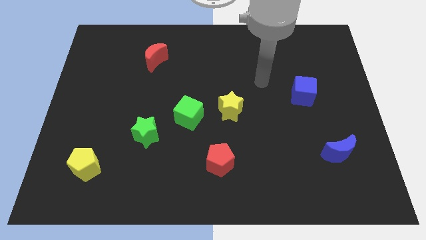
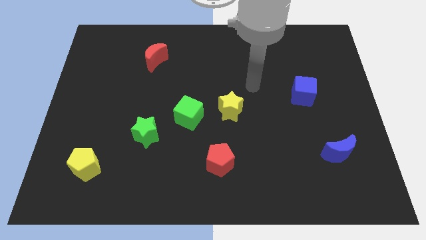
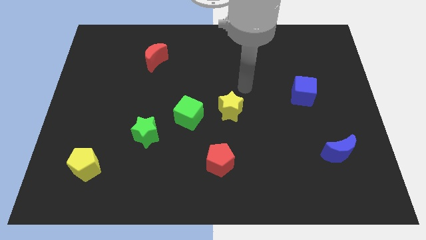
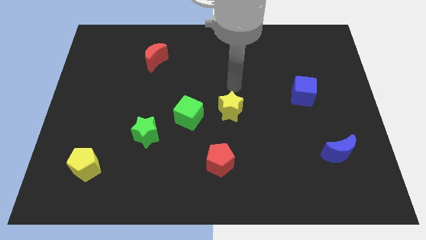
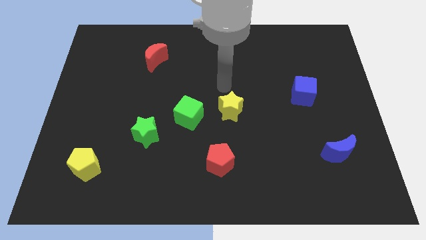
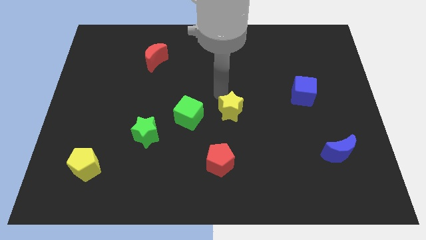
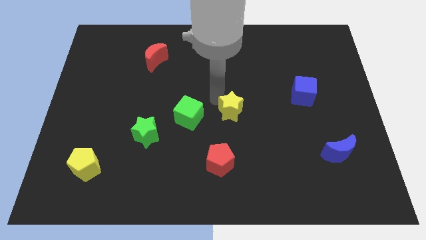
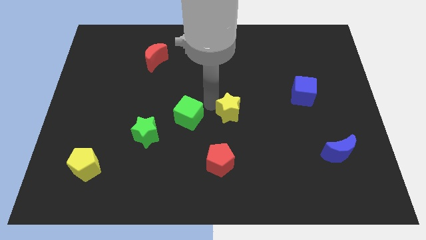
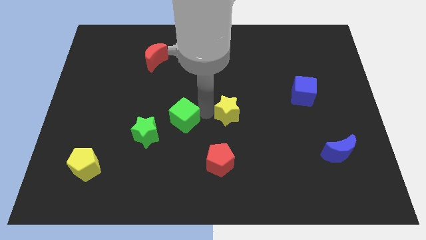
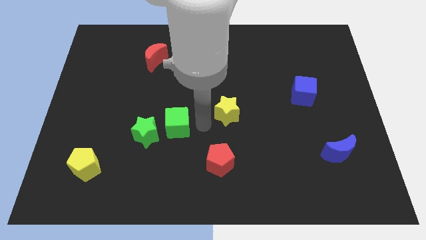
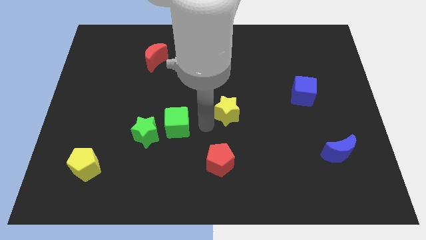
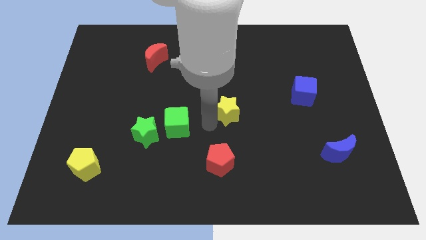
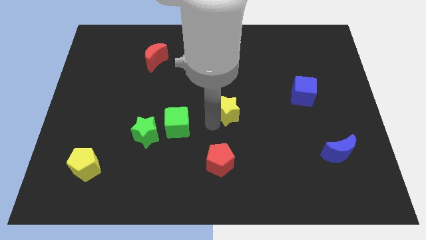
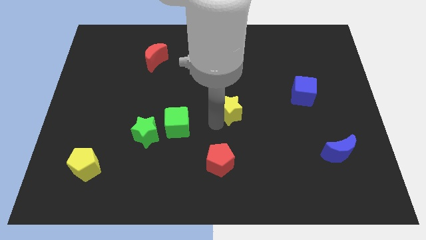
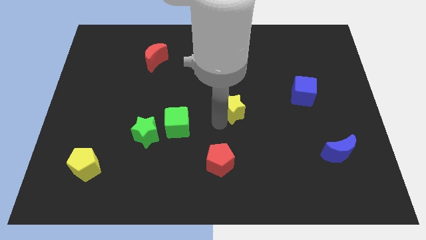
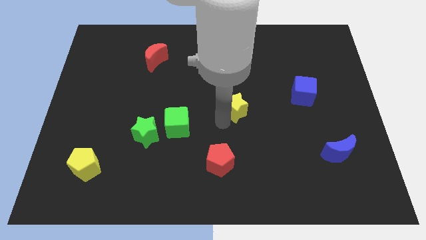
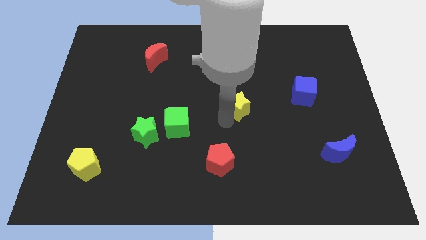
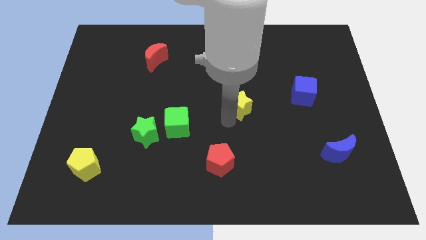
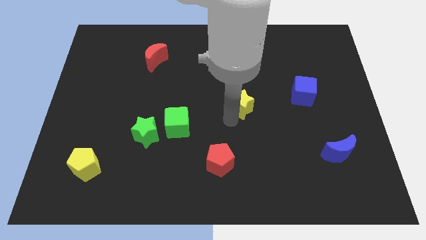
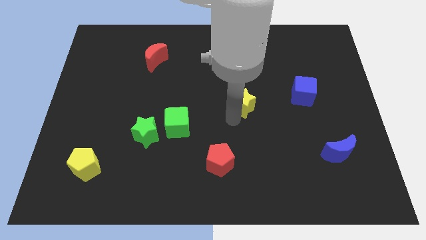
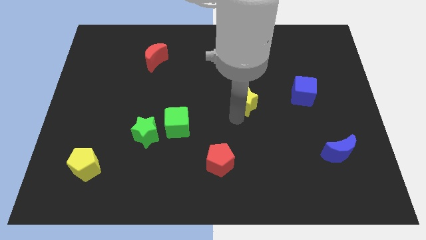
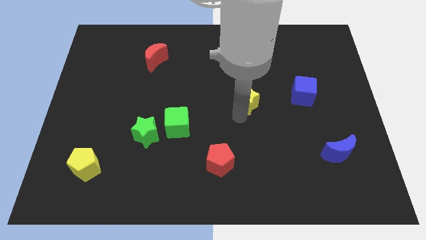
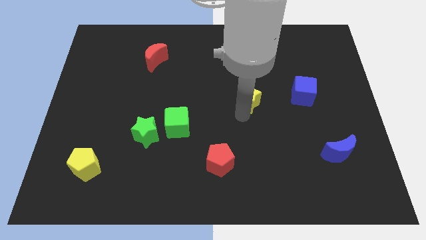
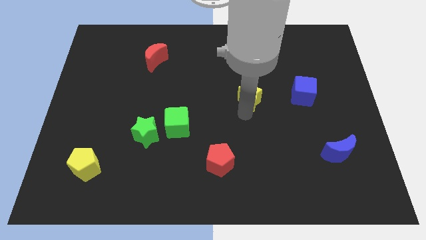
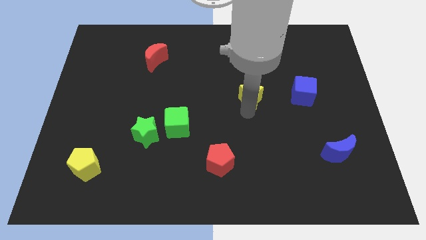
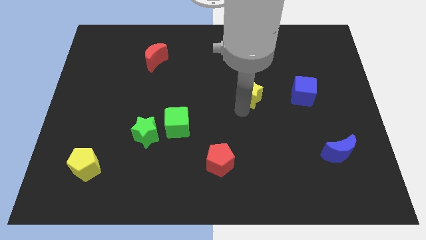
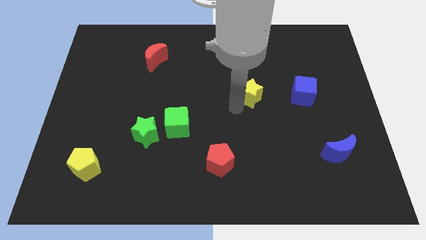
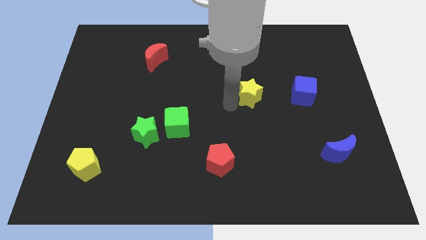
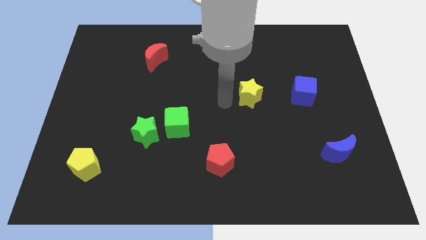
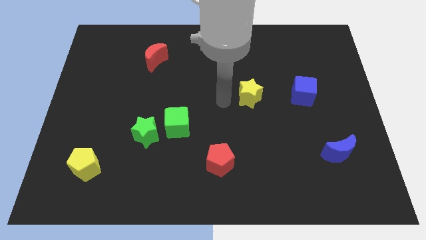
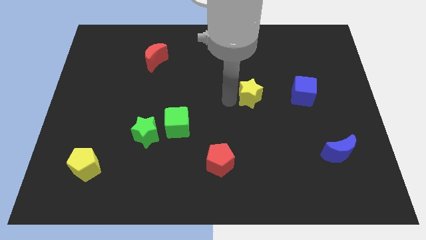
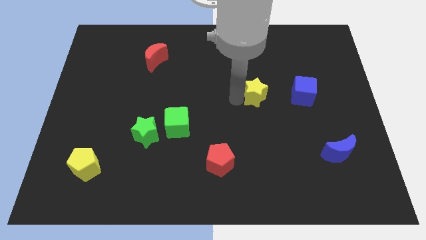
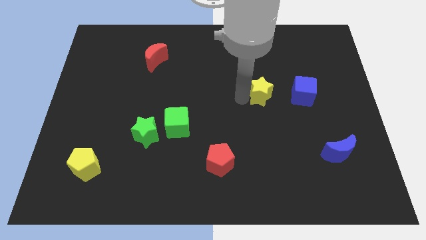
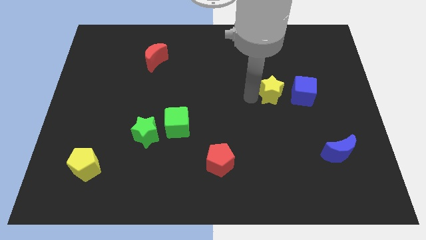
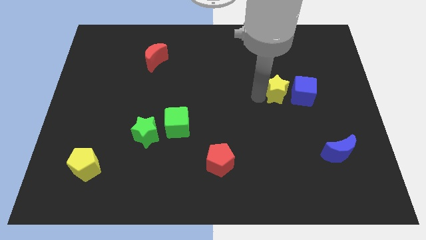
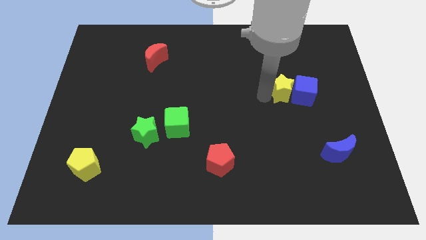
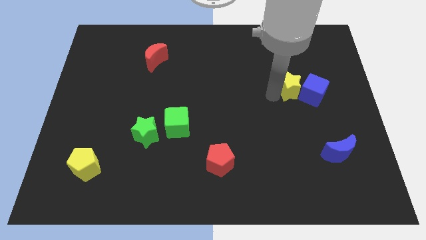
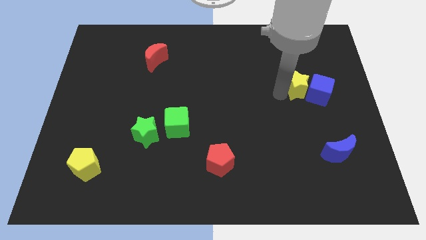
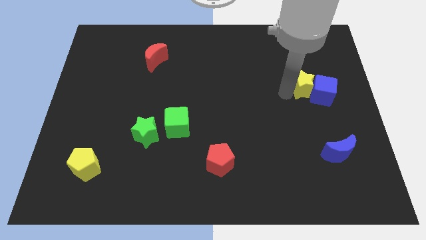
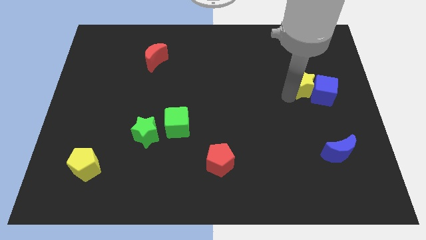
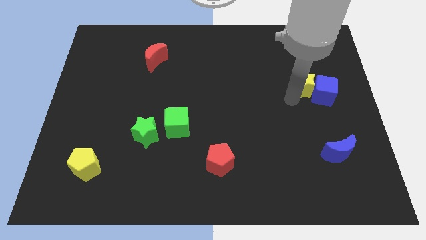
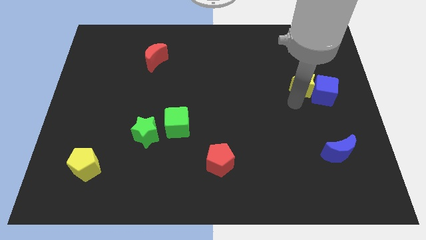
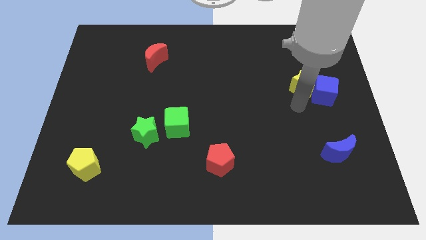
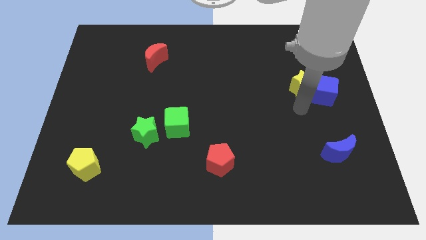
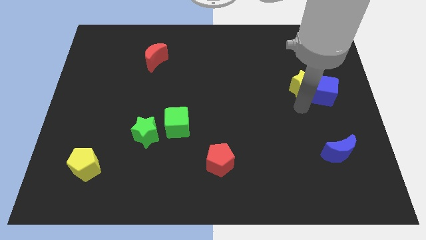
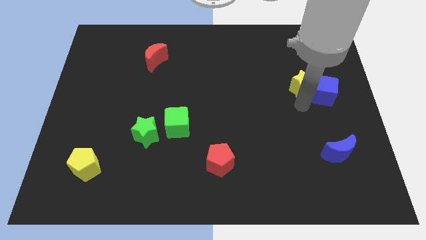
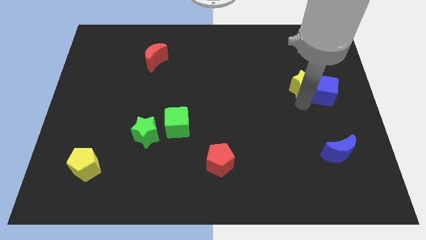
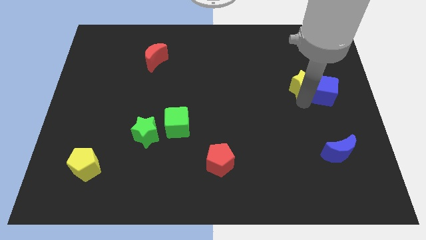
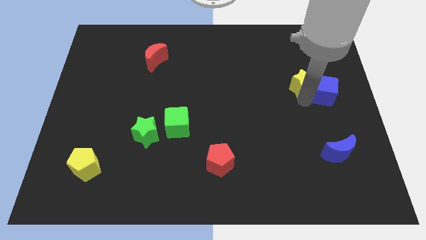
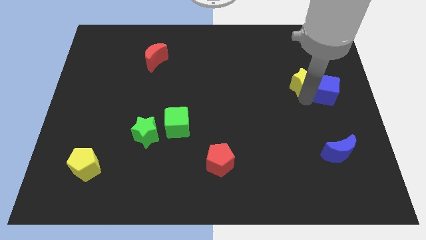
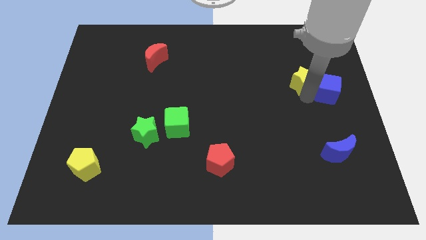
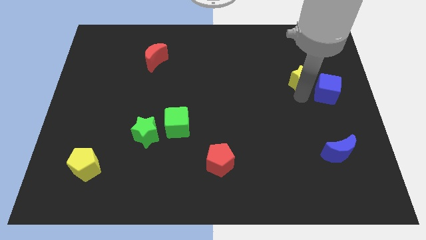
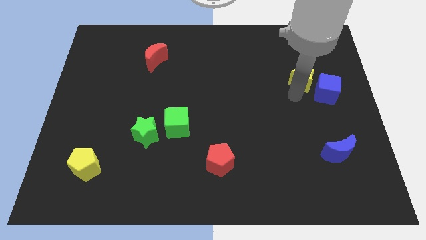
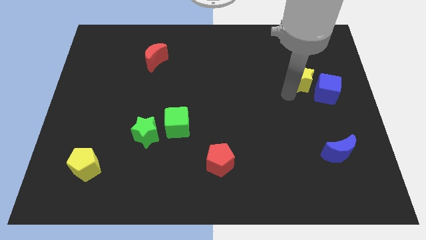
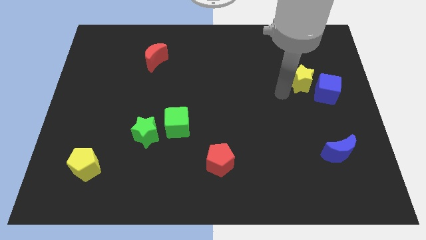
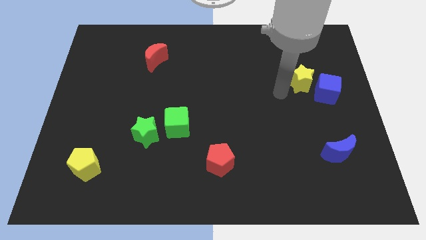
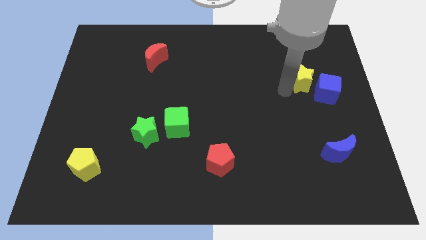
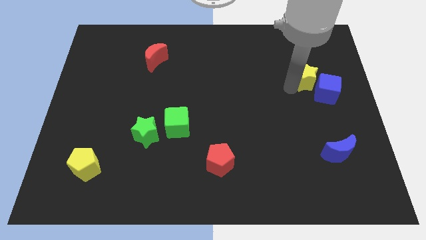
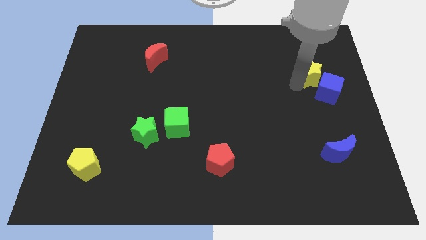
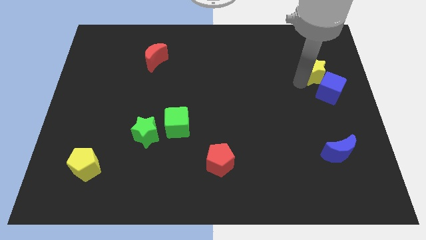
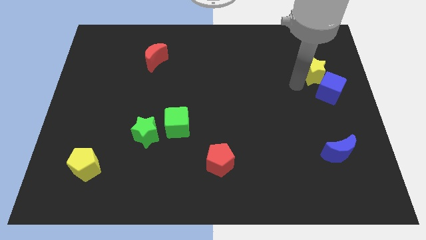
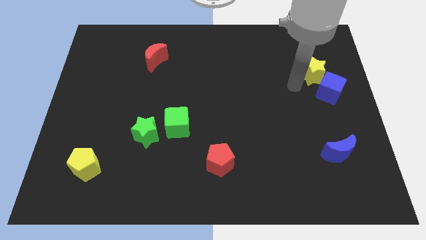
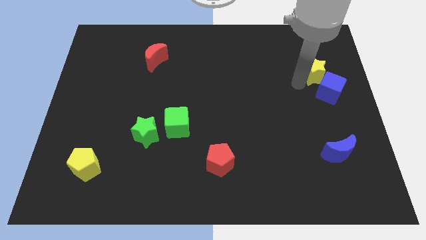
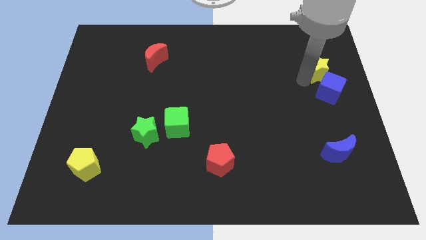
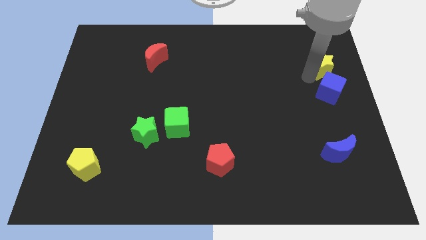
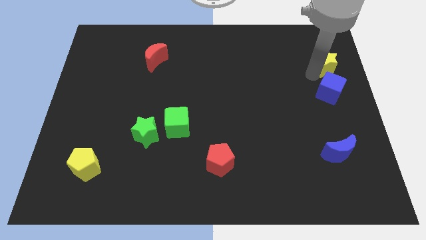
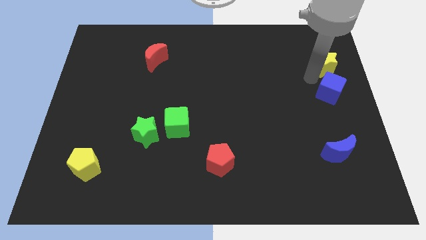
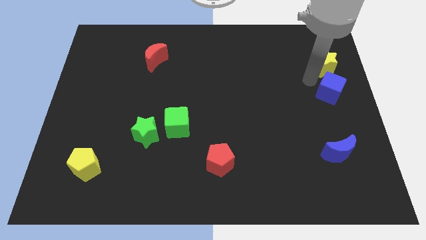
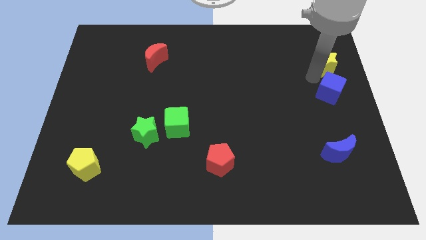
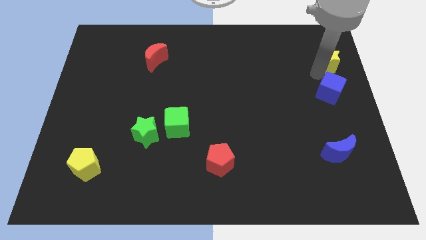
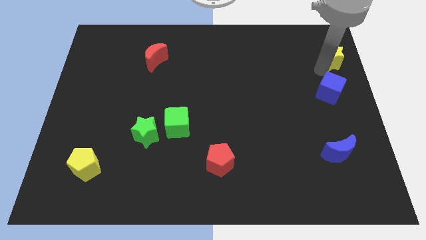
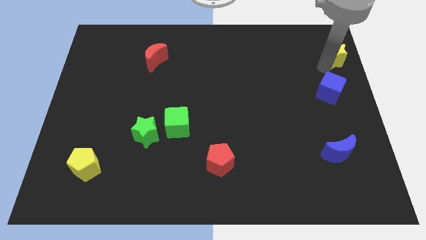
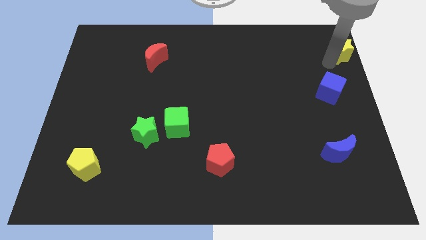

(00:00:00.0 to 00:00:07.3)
push the yellow star to the top right corner
